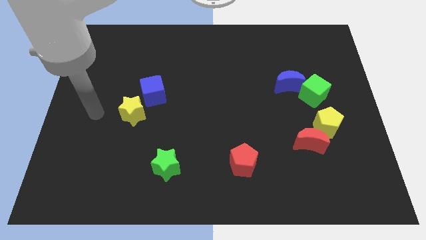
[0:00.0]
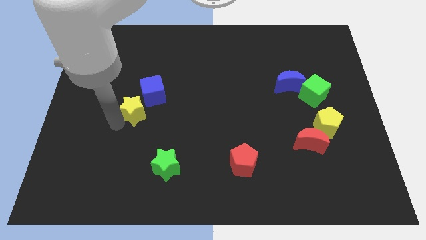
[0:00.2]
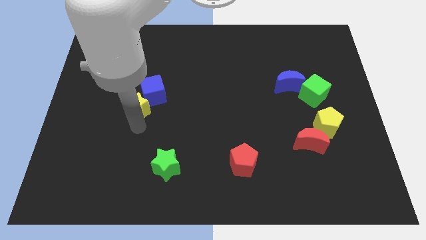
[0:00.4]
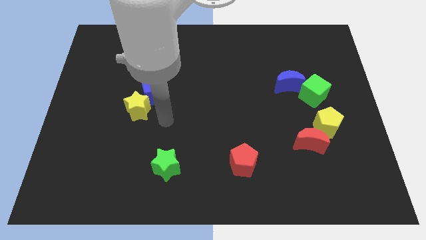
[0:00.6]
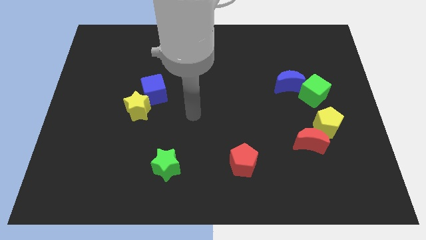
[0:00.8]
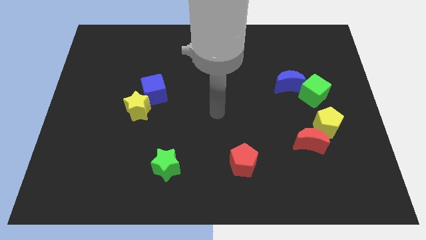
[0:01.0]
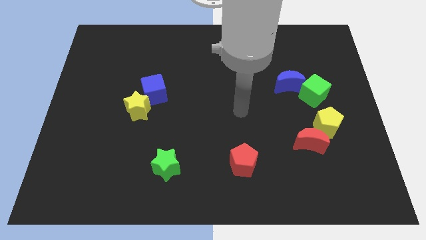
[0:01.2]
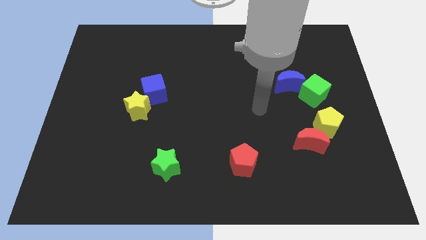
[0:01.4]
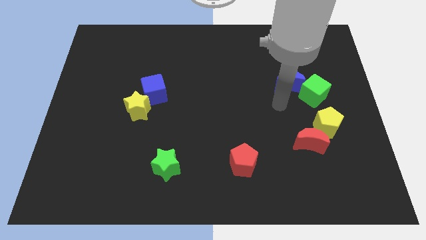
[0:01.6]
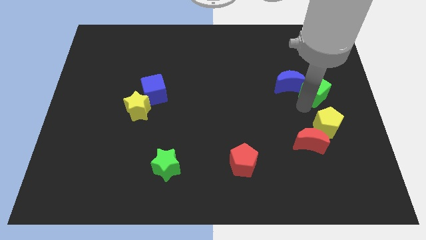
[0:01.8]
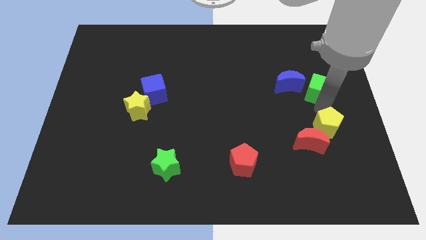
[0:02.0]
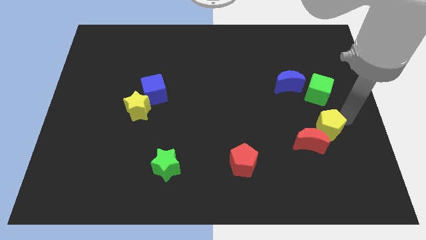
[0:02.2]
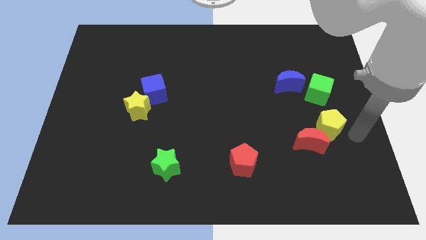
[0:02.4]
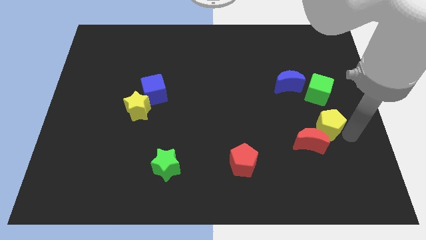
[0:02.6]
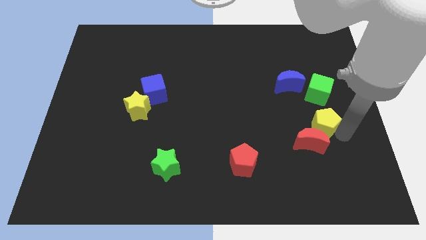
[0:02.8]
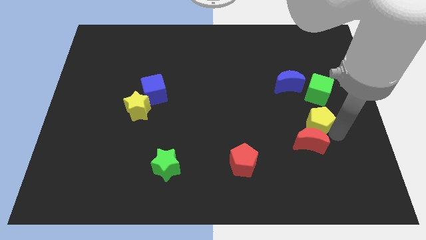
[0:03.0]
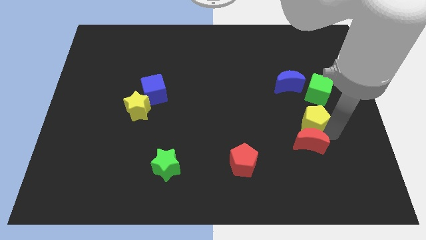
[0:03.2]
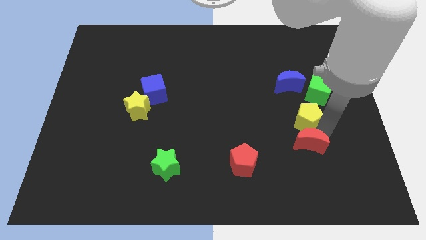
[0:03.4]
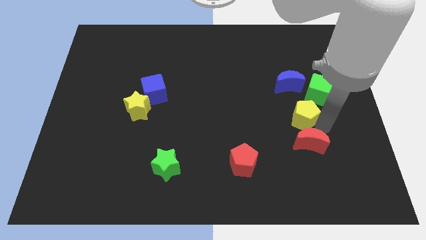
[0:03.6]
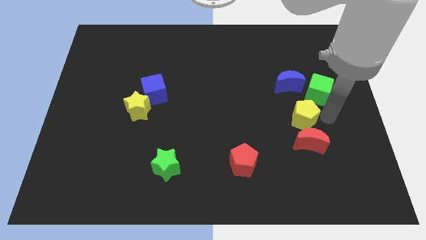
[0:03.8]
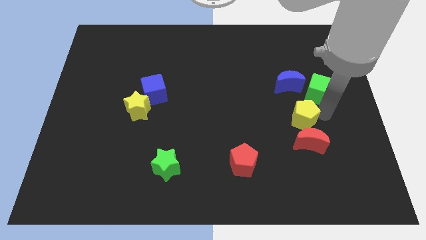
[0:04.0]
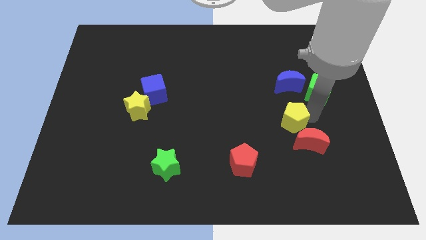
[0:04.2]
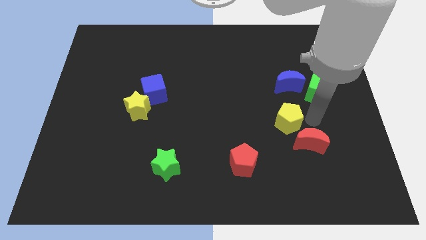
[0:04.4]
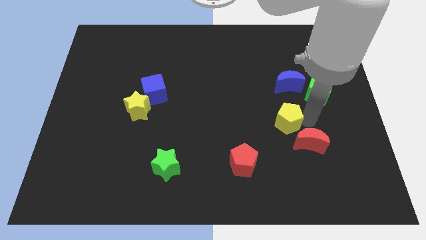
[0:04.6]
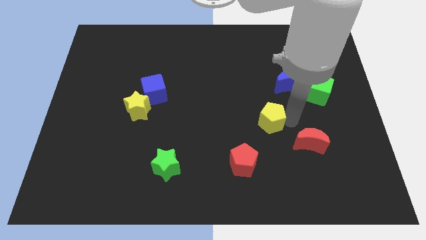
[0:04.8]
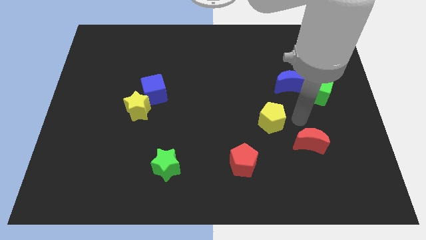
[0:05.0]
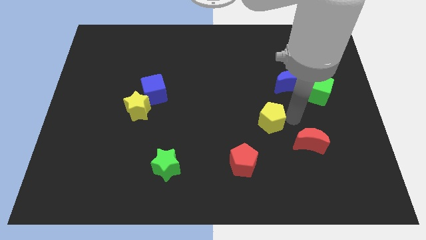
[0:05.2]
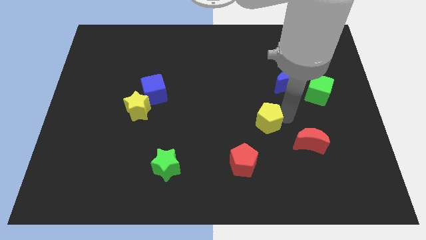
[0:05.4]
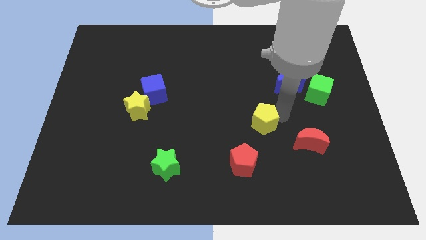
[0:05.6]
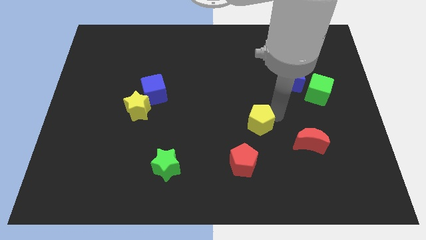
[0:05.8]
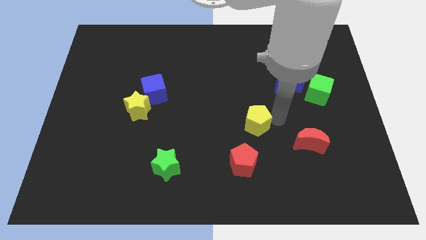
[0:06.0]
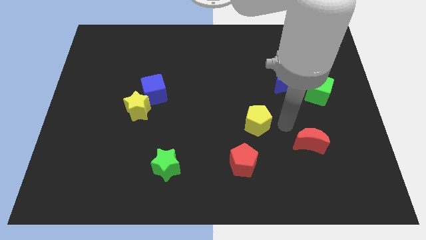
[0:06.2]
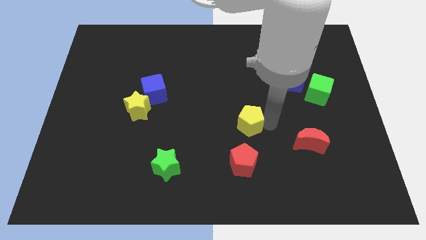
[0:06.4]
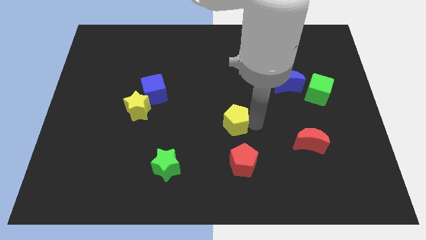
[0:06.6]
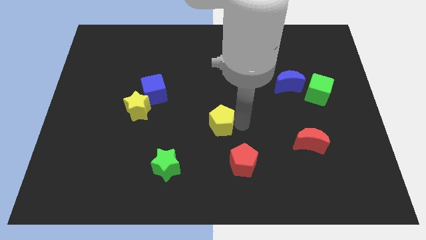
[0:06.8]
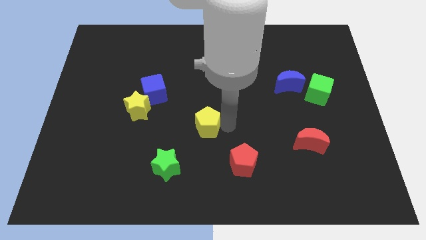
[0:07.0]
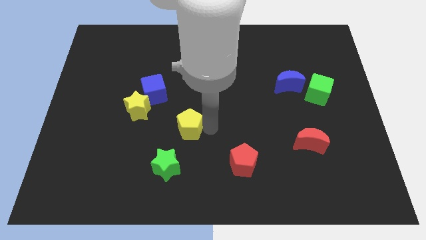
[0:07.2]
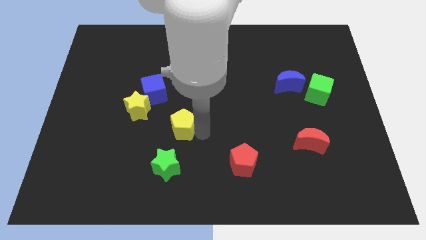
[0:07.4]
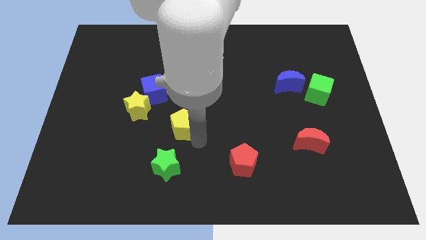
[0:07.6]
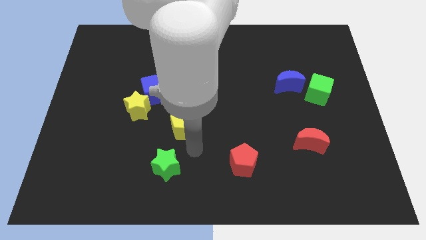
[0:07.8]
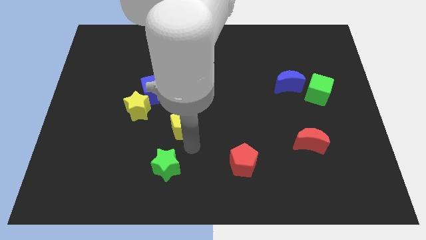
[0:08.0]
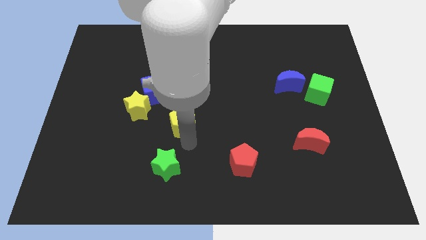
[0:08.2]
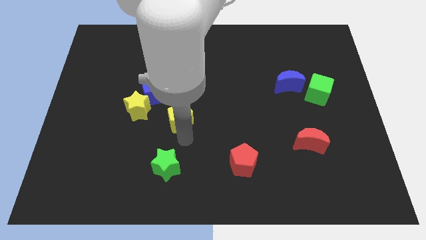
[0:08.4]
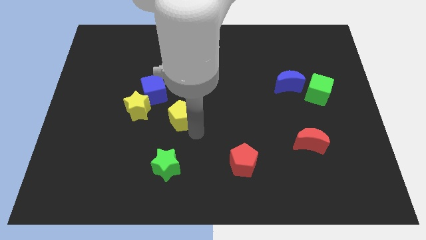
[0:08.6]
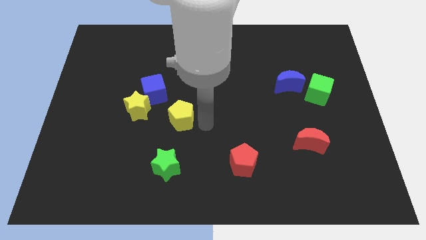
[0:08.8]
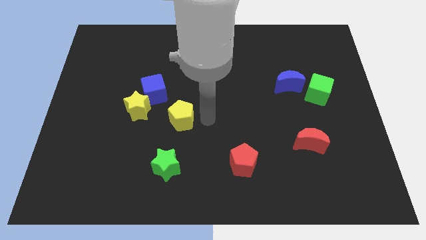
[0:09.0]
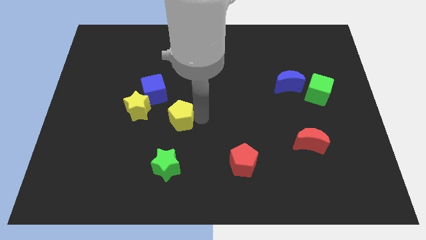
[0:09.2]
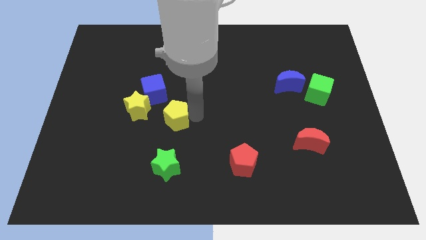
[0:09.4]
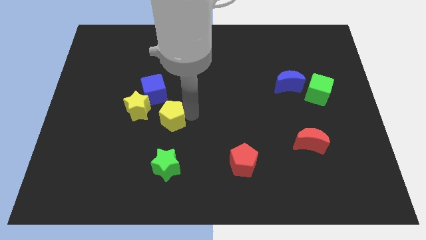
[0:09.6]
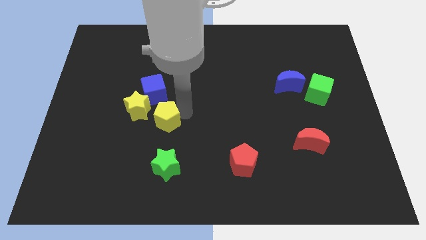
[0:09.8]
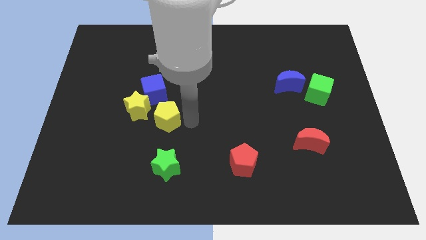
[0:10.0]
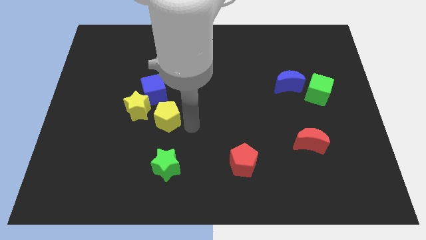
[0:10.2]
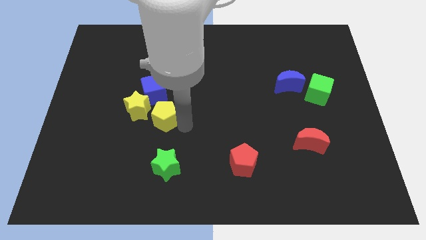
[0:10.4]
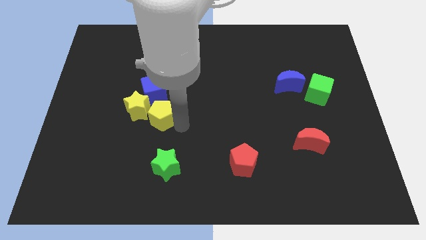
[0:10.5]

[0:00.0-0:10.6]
move the yellow pentagon next to the yellow star

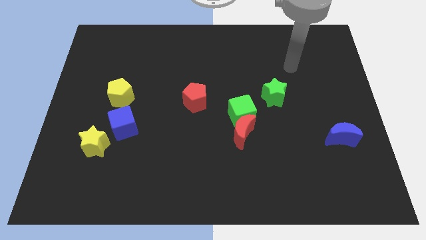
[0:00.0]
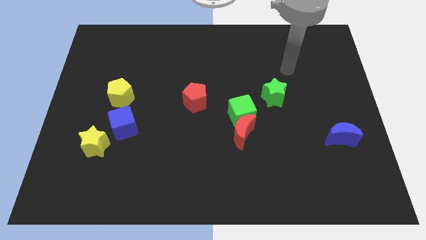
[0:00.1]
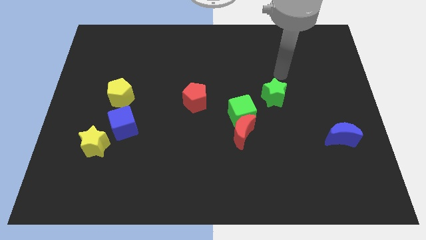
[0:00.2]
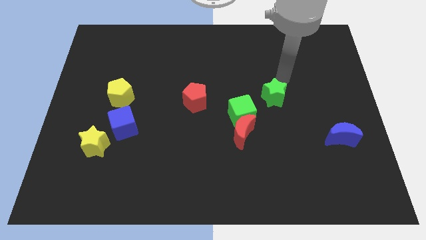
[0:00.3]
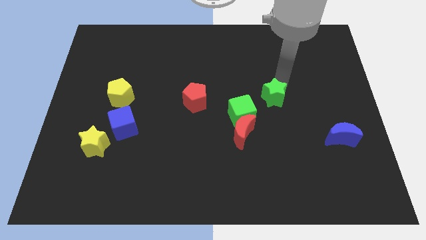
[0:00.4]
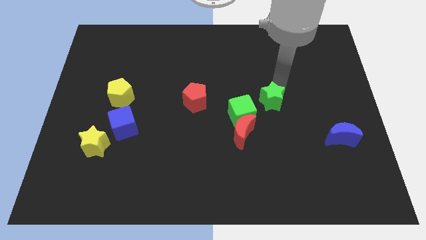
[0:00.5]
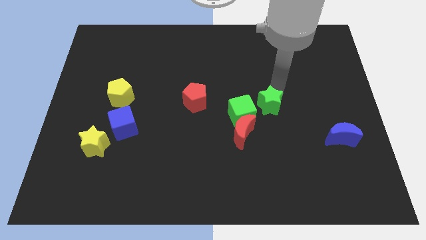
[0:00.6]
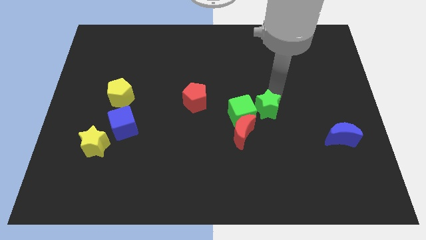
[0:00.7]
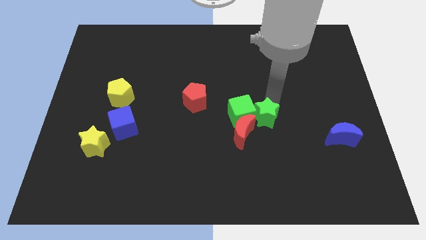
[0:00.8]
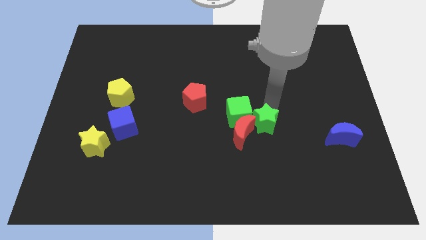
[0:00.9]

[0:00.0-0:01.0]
put the green star close to the red moon

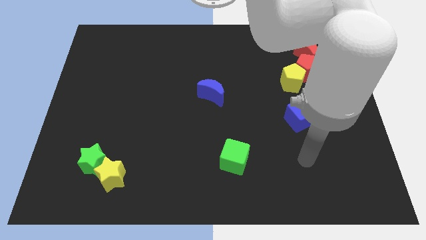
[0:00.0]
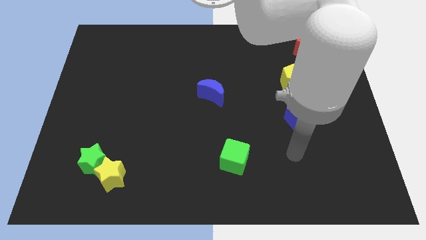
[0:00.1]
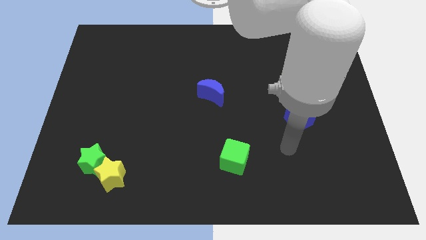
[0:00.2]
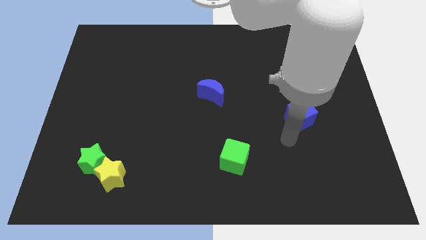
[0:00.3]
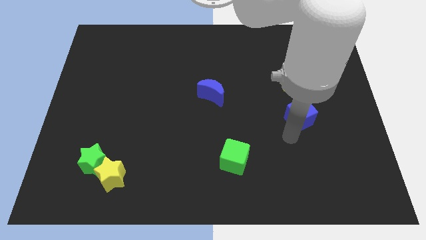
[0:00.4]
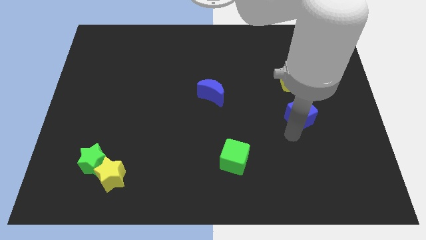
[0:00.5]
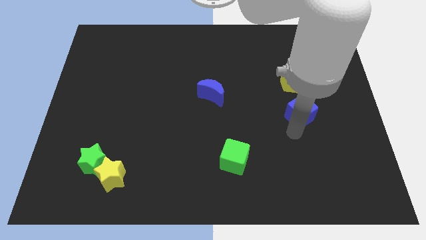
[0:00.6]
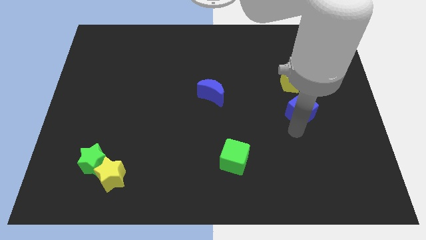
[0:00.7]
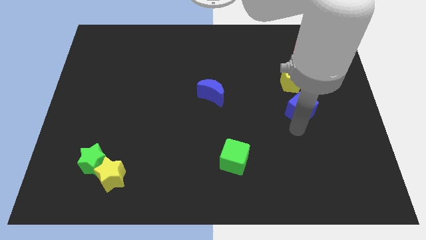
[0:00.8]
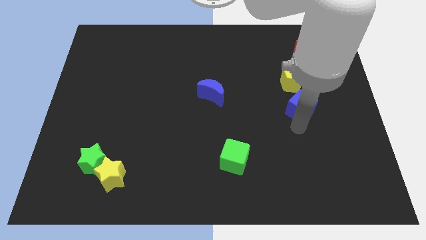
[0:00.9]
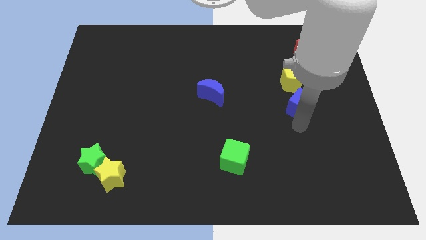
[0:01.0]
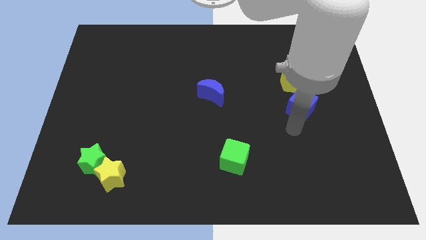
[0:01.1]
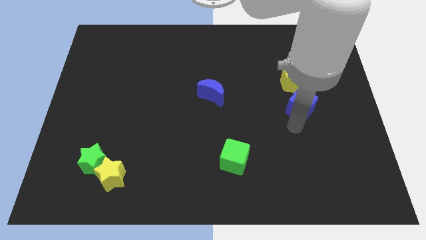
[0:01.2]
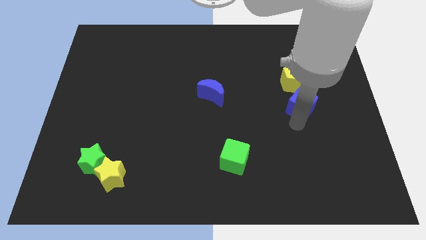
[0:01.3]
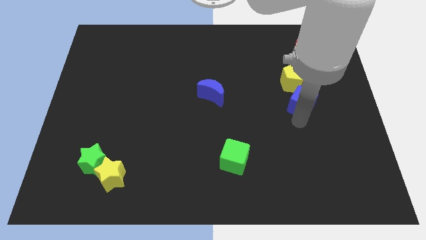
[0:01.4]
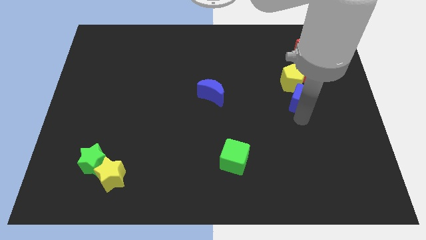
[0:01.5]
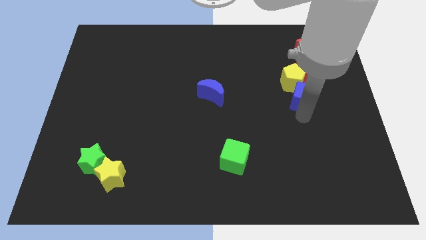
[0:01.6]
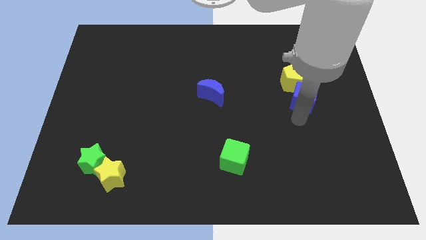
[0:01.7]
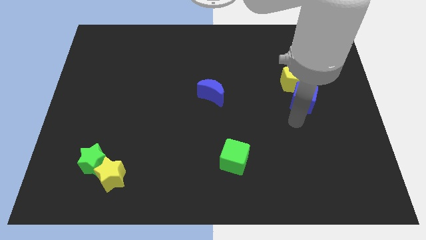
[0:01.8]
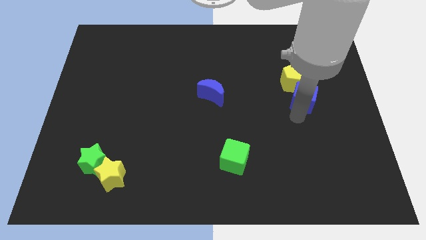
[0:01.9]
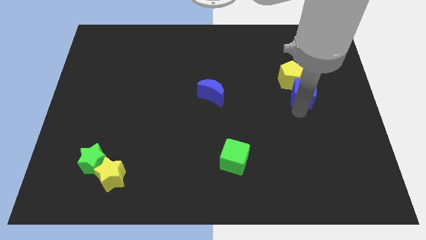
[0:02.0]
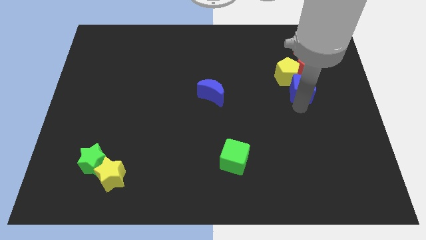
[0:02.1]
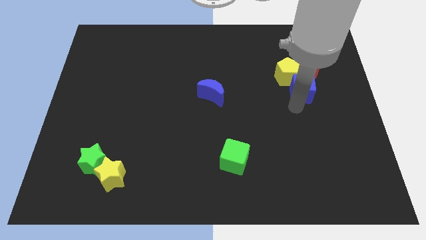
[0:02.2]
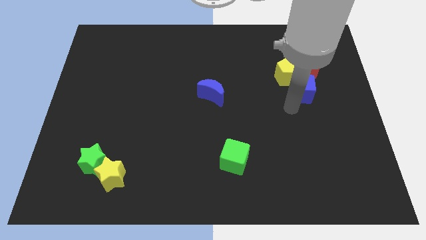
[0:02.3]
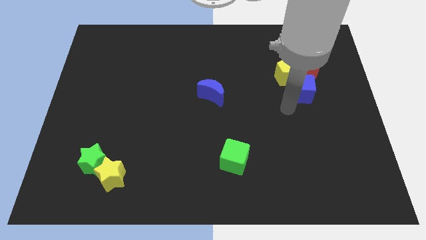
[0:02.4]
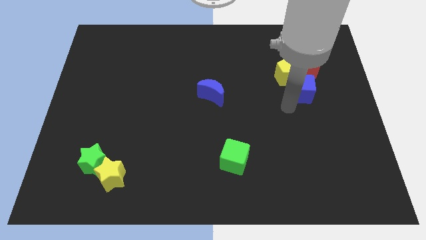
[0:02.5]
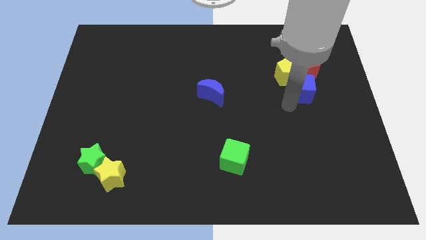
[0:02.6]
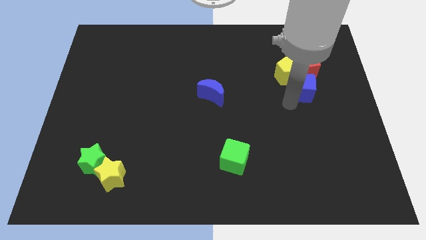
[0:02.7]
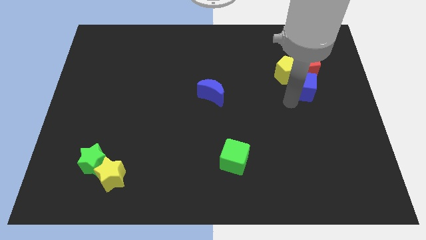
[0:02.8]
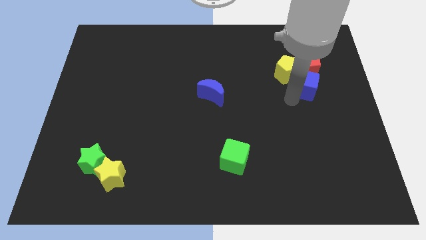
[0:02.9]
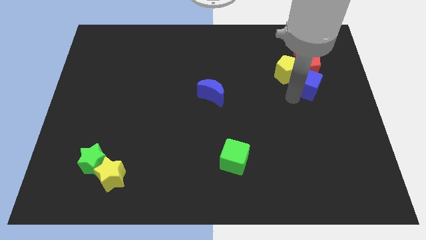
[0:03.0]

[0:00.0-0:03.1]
push the blue cube to the red pentagon
